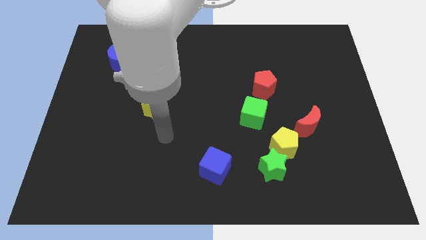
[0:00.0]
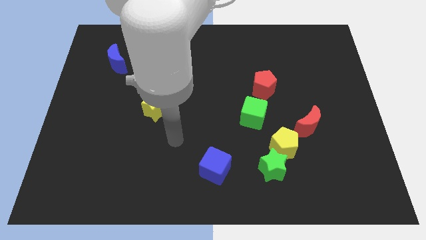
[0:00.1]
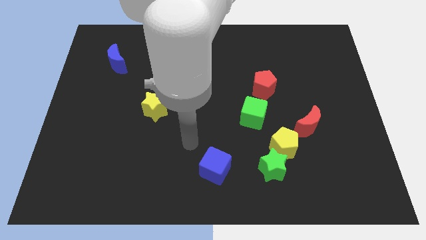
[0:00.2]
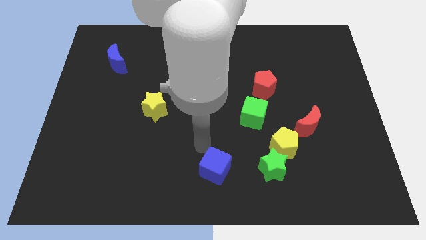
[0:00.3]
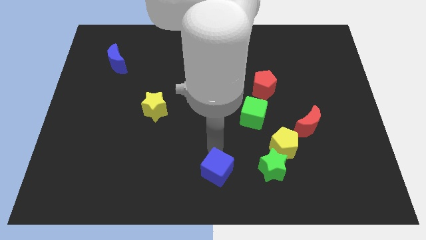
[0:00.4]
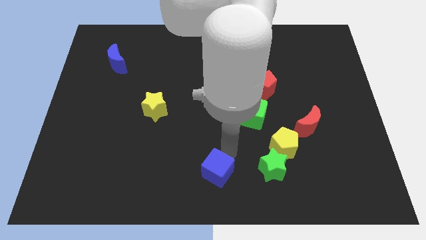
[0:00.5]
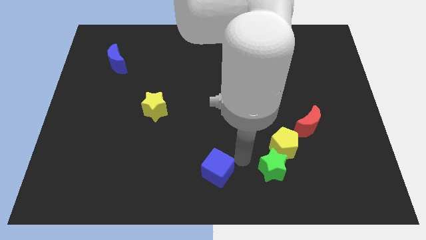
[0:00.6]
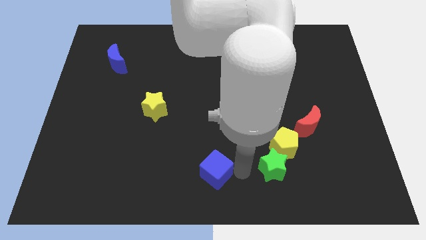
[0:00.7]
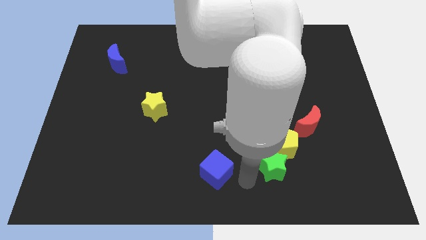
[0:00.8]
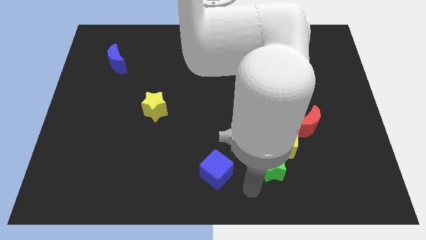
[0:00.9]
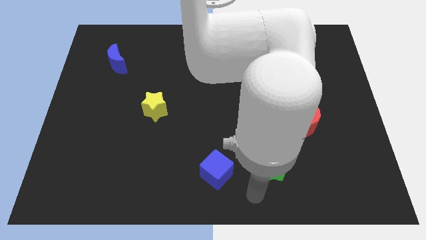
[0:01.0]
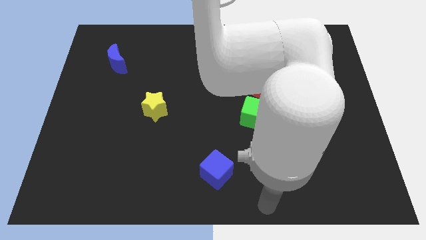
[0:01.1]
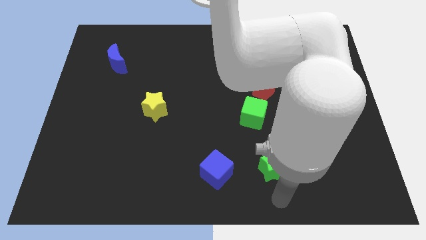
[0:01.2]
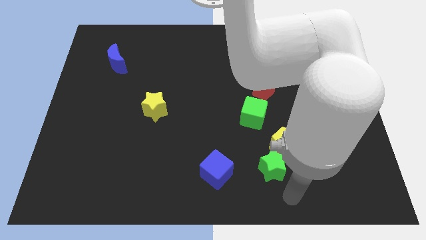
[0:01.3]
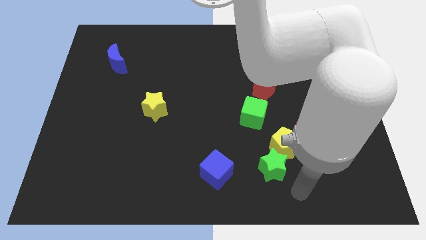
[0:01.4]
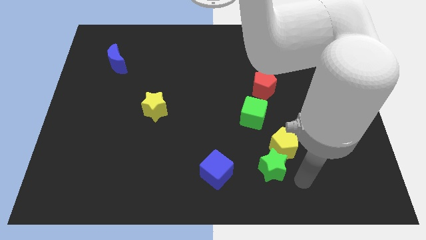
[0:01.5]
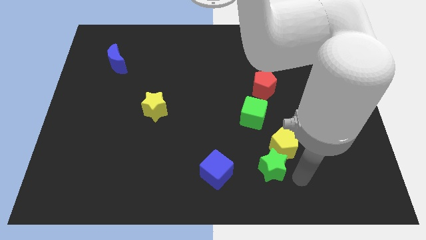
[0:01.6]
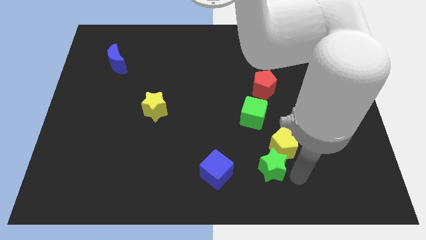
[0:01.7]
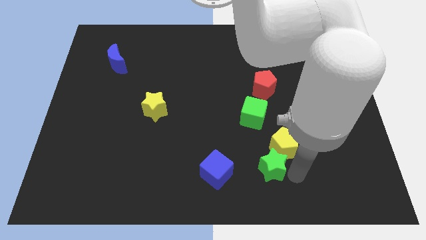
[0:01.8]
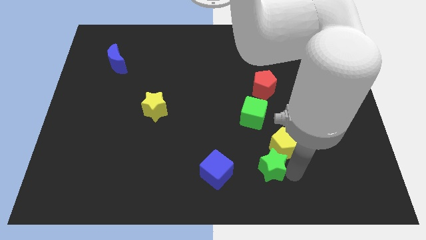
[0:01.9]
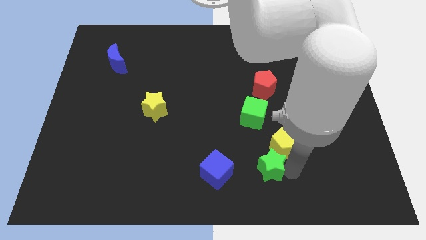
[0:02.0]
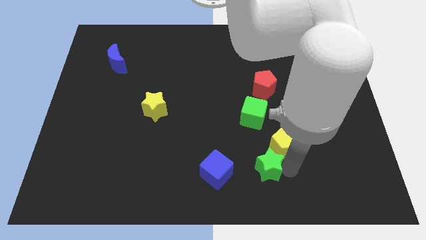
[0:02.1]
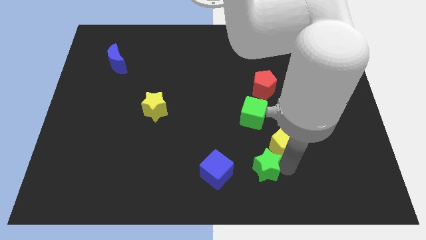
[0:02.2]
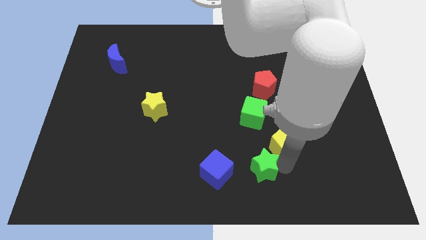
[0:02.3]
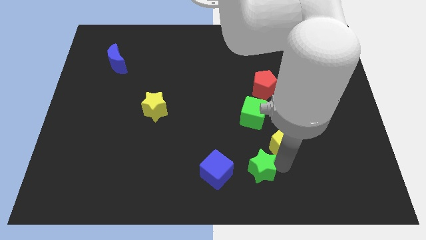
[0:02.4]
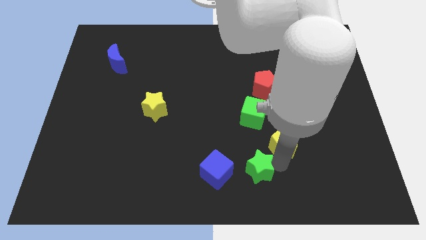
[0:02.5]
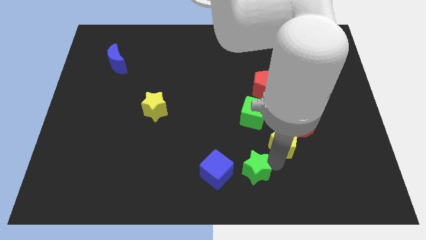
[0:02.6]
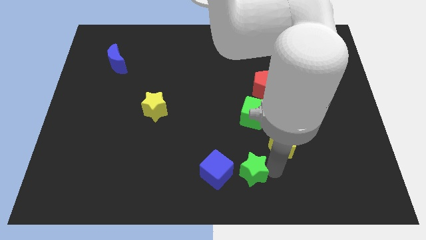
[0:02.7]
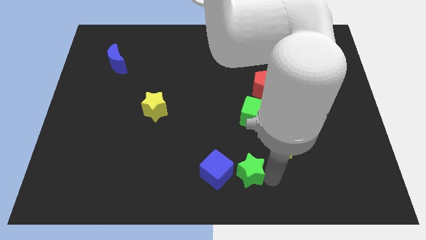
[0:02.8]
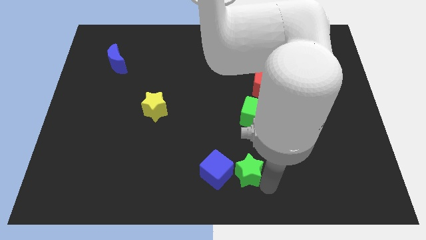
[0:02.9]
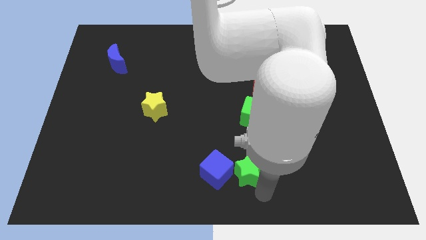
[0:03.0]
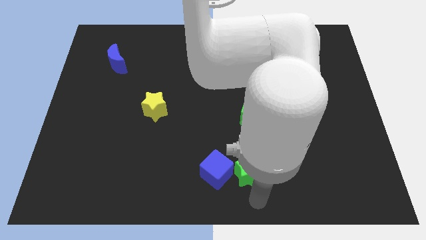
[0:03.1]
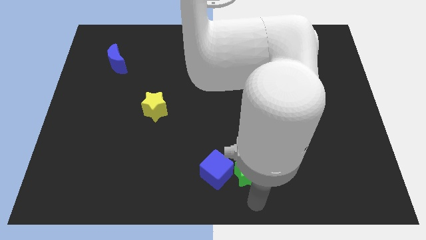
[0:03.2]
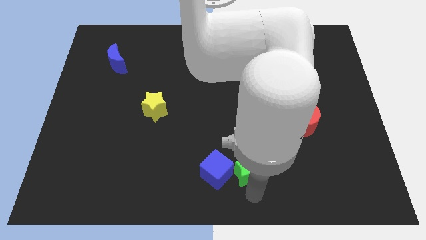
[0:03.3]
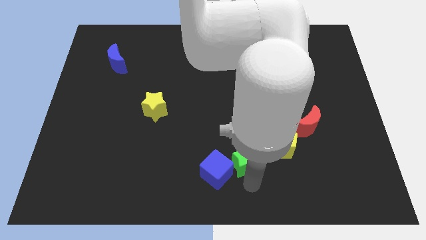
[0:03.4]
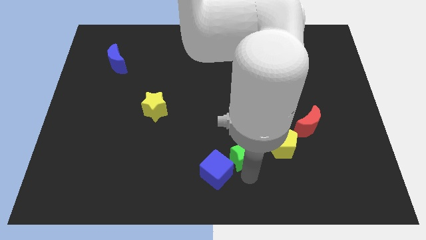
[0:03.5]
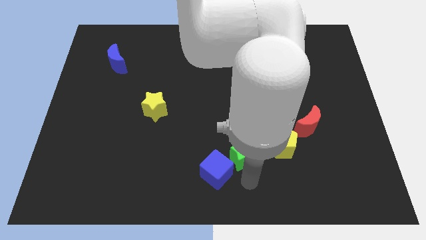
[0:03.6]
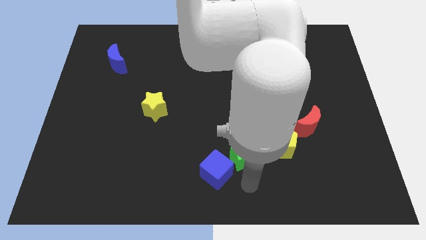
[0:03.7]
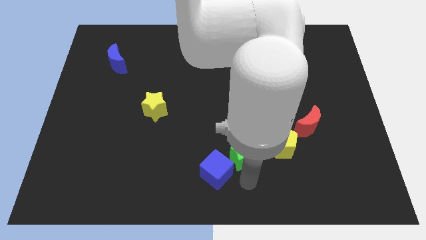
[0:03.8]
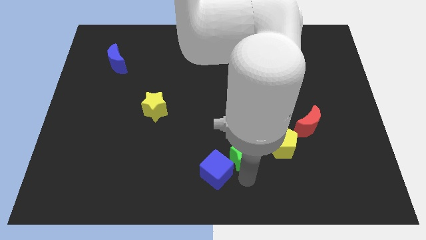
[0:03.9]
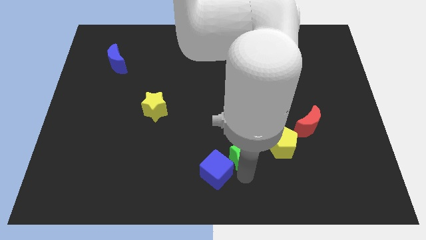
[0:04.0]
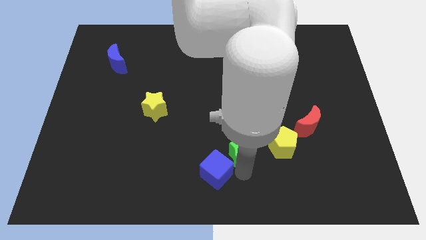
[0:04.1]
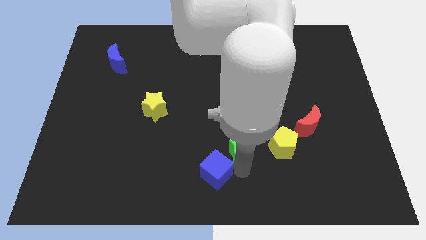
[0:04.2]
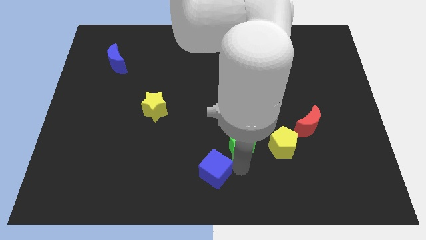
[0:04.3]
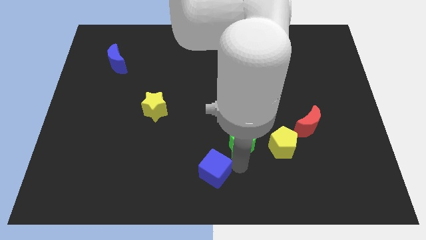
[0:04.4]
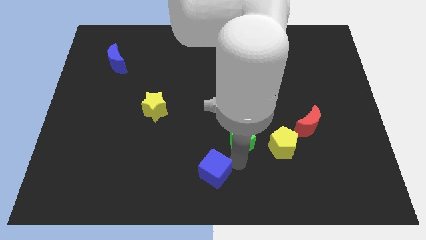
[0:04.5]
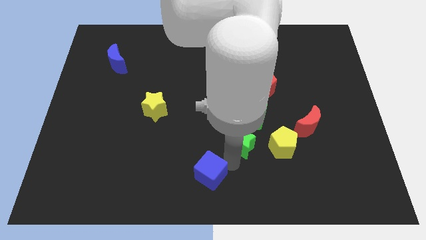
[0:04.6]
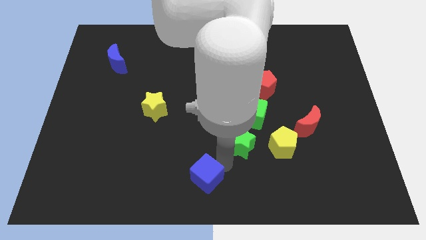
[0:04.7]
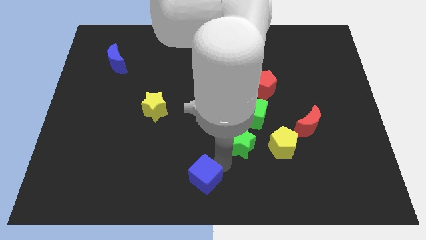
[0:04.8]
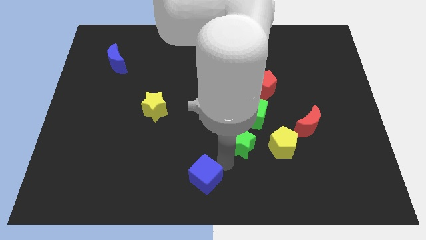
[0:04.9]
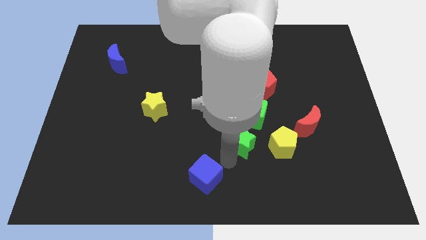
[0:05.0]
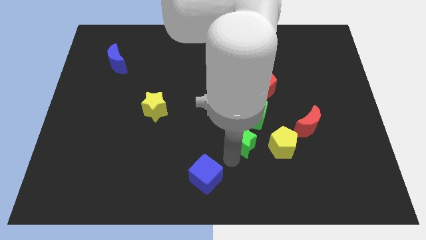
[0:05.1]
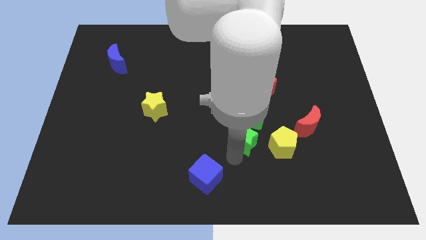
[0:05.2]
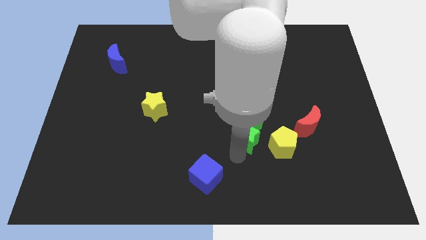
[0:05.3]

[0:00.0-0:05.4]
slide the green star to the left side of the red moon

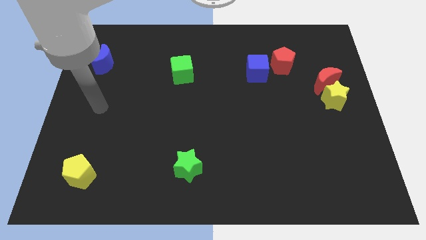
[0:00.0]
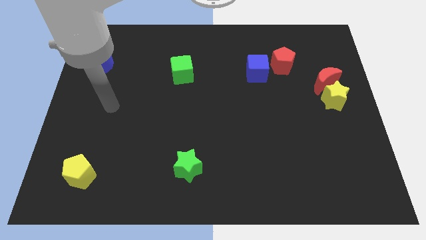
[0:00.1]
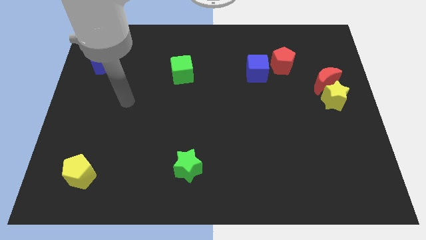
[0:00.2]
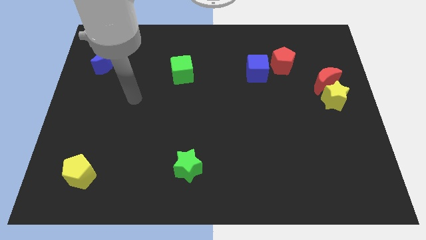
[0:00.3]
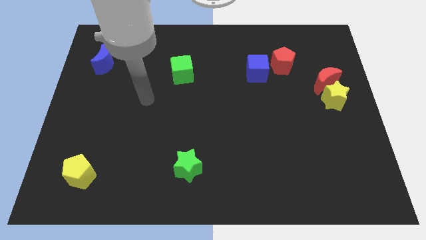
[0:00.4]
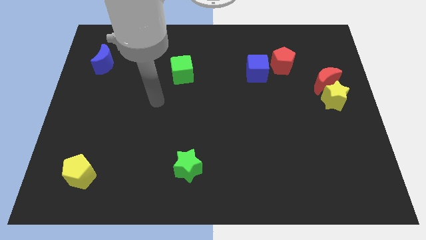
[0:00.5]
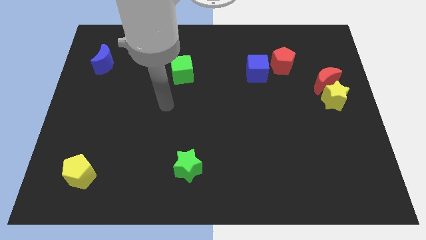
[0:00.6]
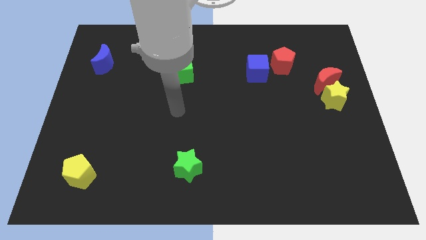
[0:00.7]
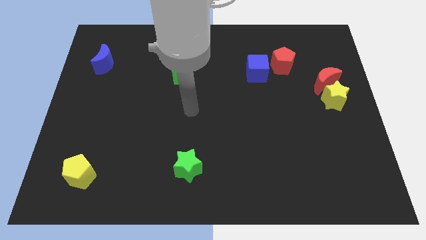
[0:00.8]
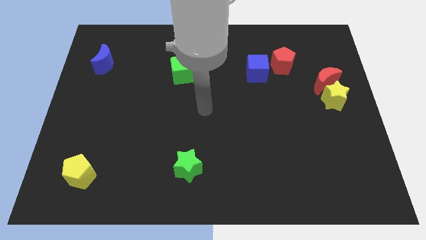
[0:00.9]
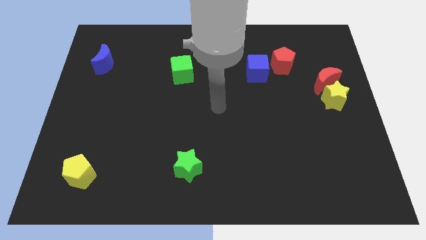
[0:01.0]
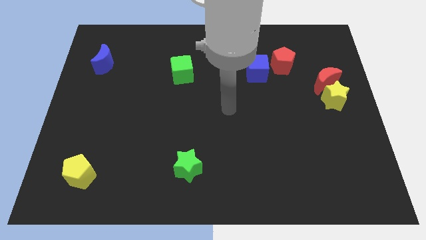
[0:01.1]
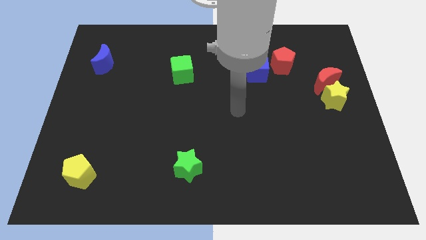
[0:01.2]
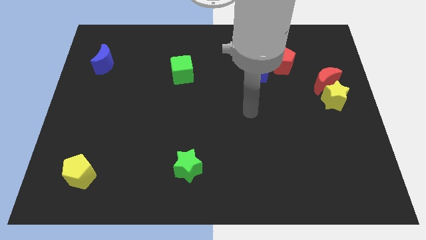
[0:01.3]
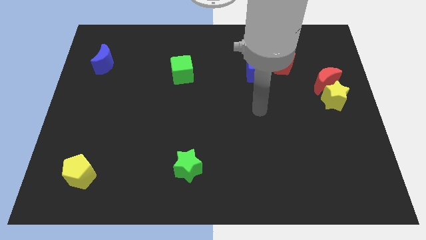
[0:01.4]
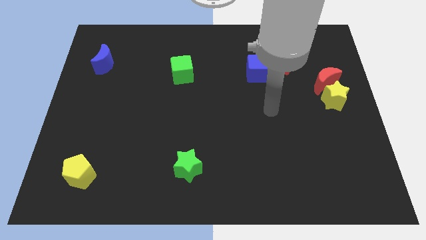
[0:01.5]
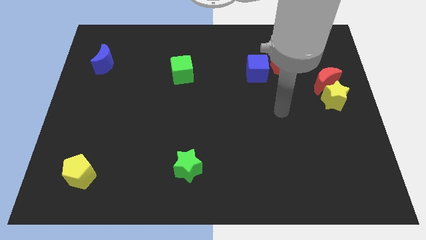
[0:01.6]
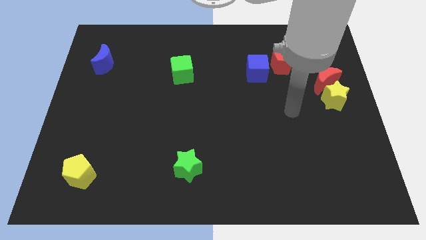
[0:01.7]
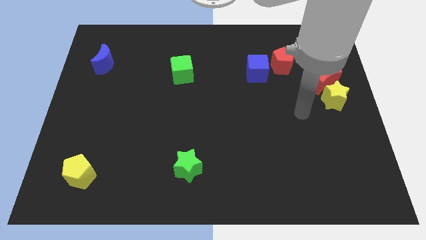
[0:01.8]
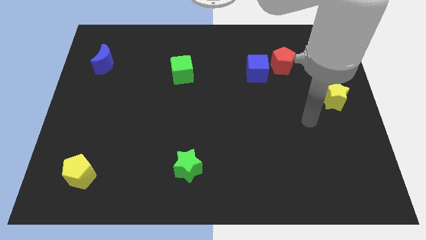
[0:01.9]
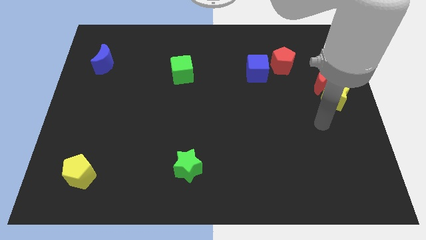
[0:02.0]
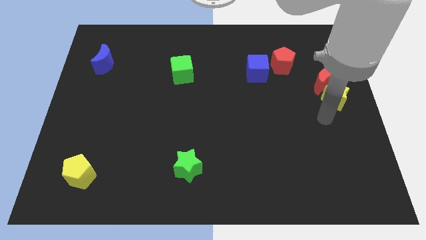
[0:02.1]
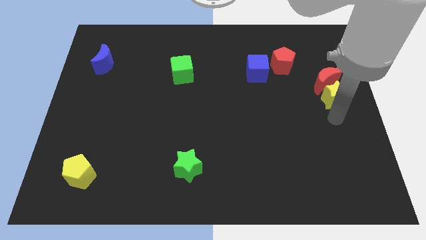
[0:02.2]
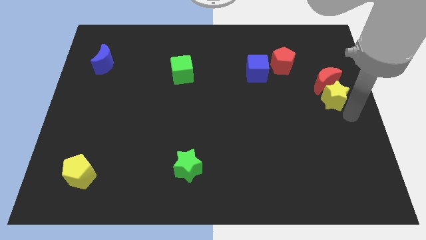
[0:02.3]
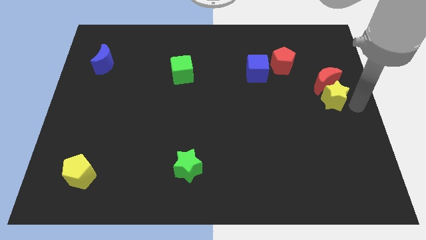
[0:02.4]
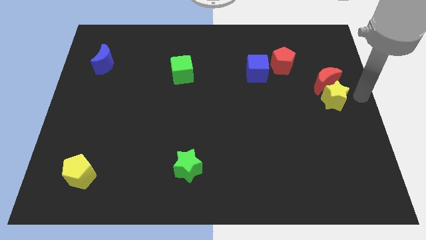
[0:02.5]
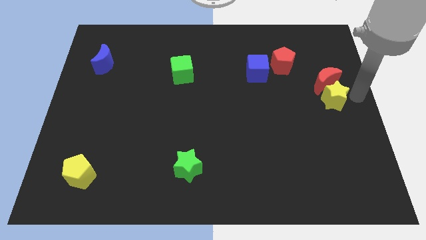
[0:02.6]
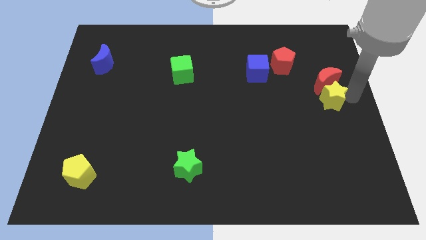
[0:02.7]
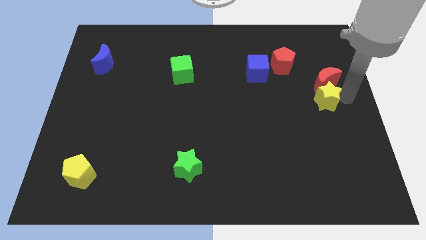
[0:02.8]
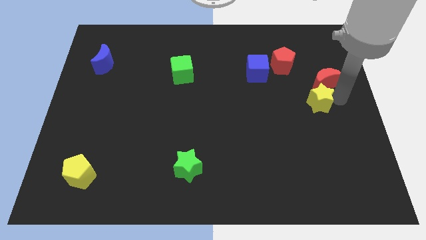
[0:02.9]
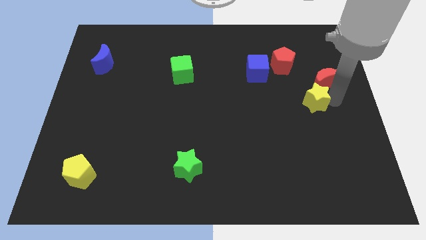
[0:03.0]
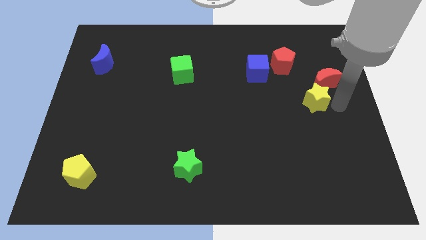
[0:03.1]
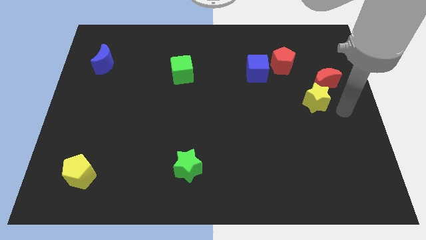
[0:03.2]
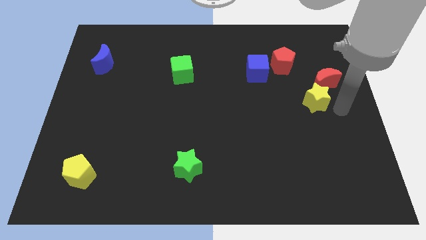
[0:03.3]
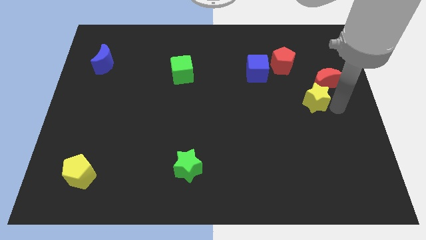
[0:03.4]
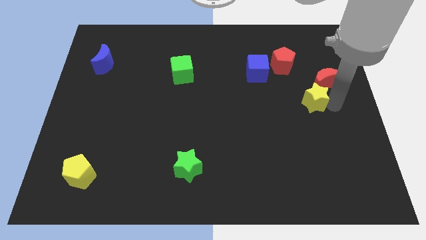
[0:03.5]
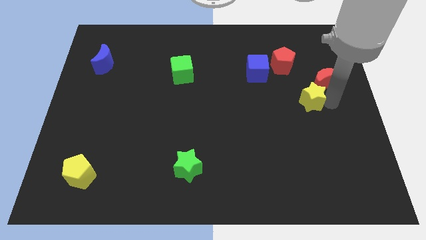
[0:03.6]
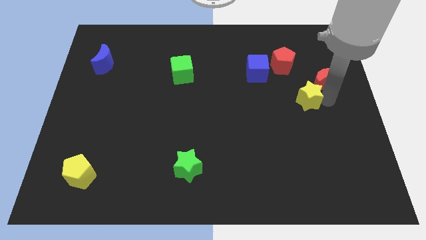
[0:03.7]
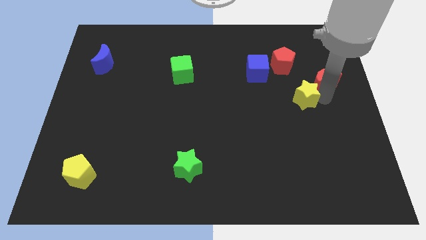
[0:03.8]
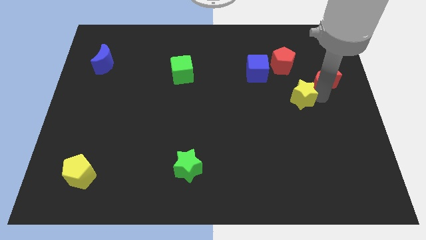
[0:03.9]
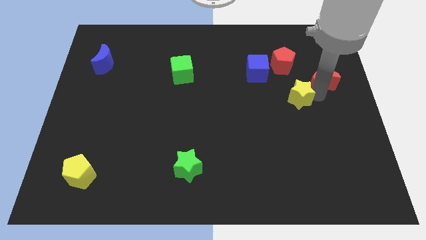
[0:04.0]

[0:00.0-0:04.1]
move the yellow star to the bottom right side of the blue cube
